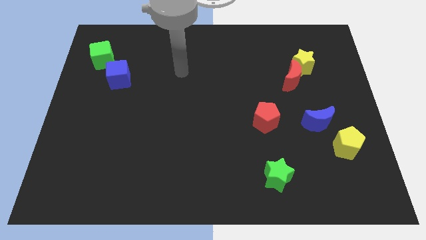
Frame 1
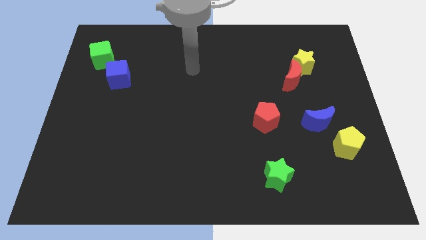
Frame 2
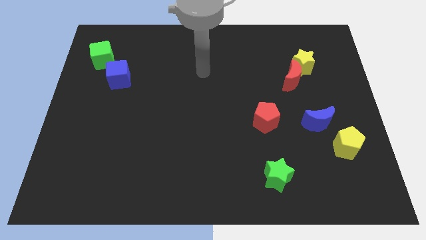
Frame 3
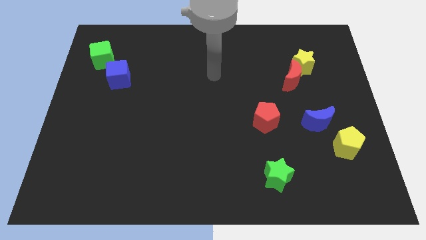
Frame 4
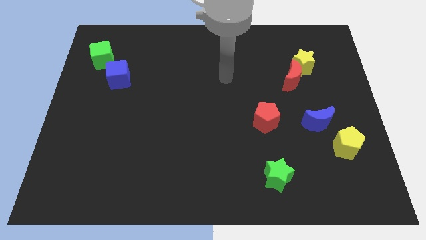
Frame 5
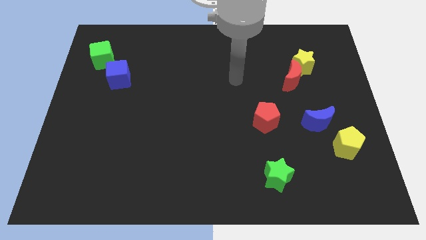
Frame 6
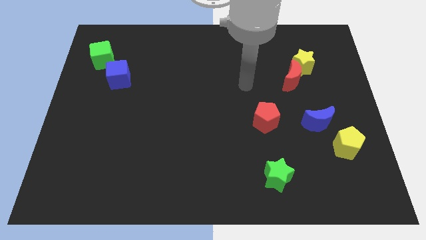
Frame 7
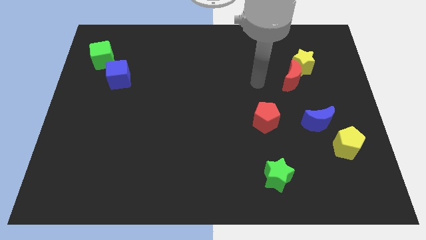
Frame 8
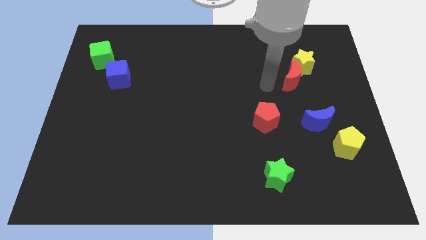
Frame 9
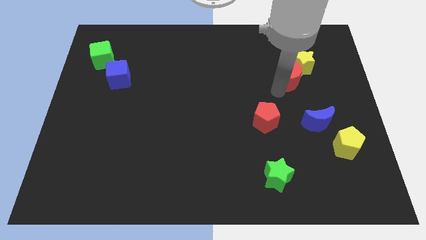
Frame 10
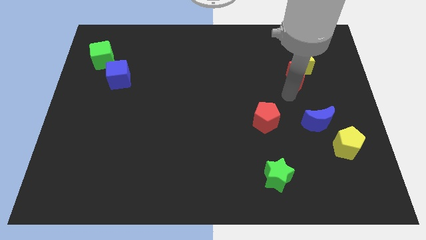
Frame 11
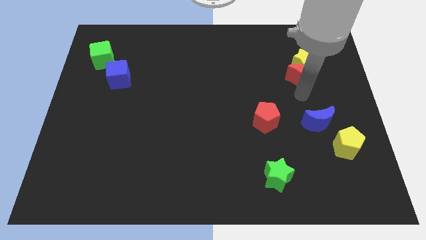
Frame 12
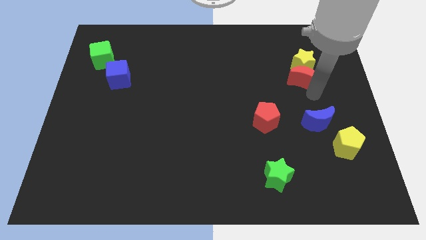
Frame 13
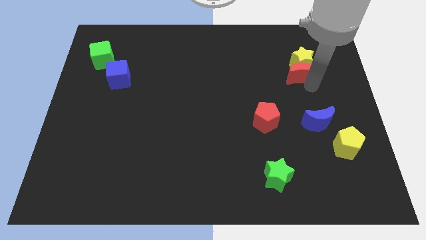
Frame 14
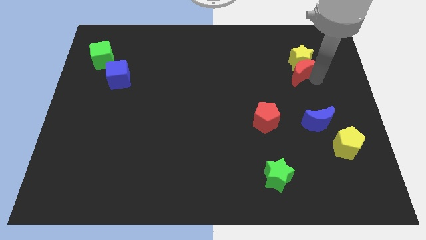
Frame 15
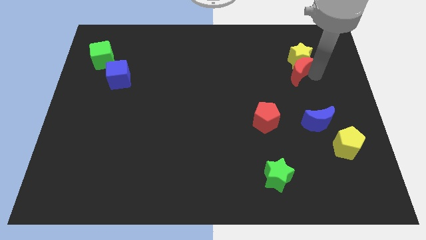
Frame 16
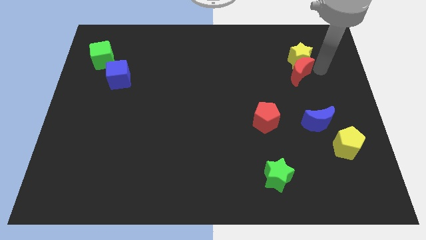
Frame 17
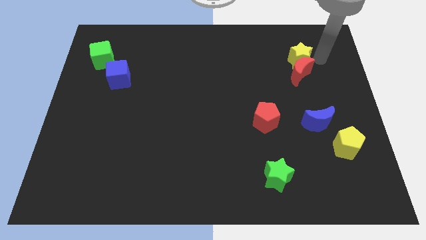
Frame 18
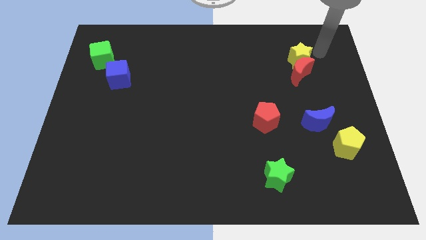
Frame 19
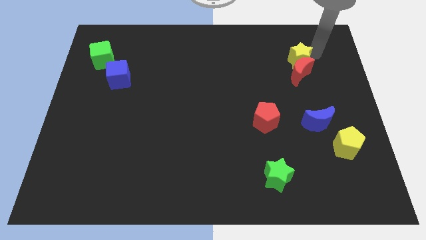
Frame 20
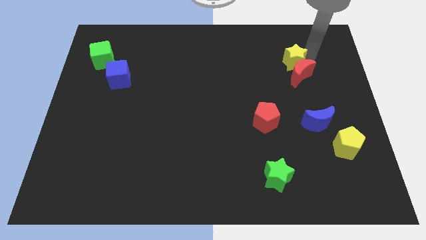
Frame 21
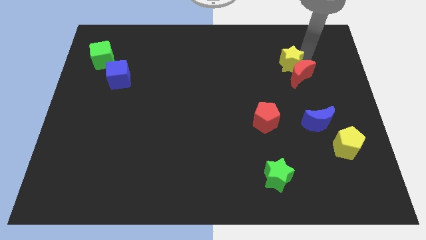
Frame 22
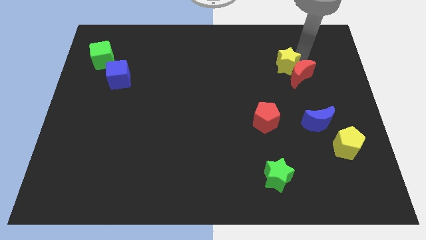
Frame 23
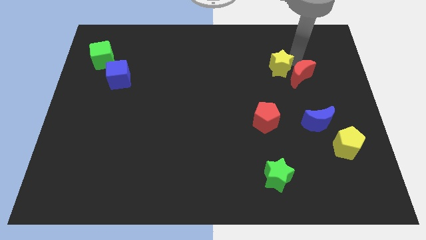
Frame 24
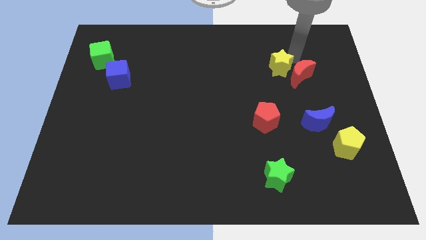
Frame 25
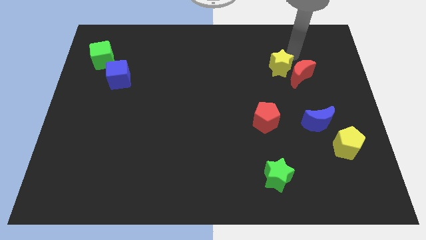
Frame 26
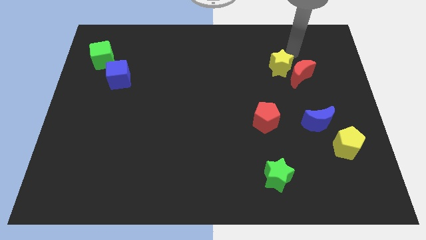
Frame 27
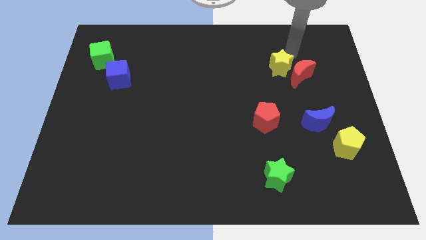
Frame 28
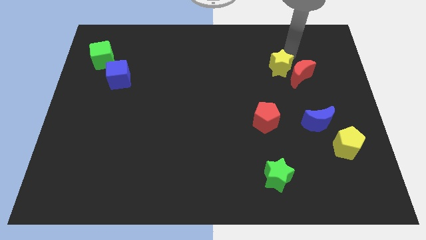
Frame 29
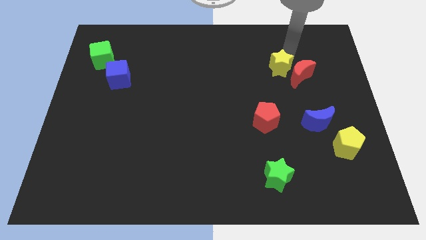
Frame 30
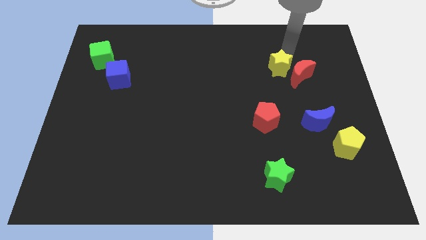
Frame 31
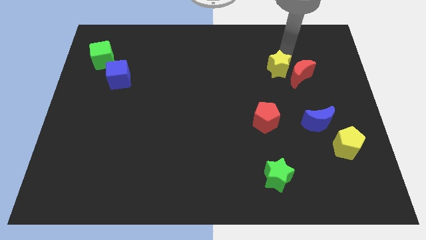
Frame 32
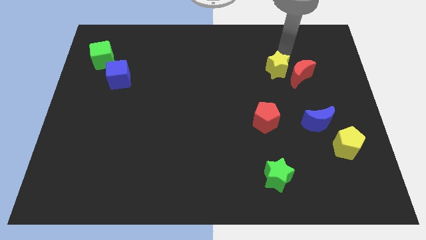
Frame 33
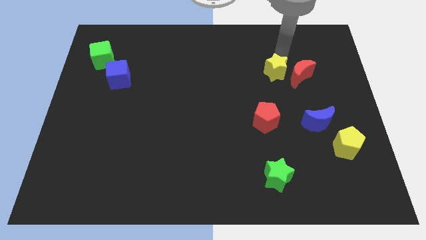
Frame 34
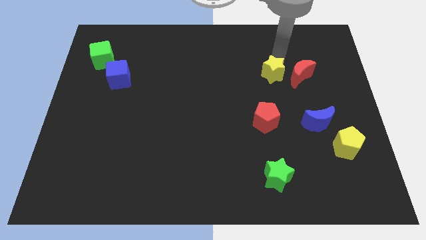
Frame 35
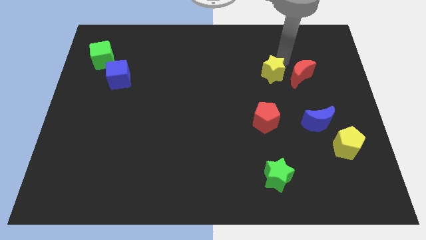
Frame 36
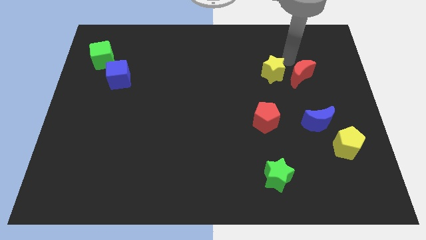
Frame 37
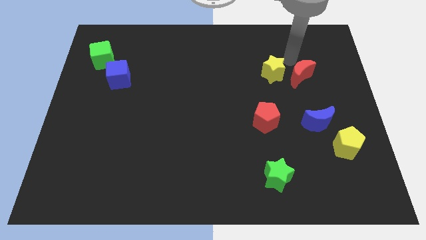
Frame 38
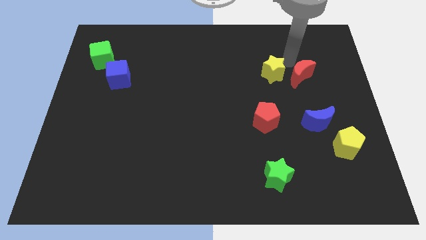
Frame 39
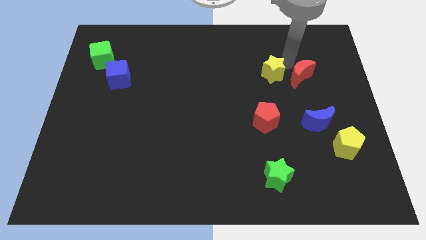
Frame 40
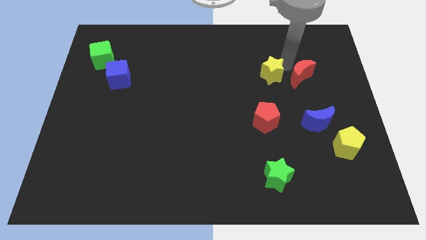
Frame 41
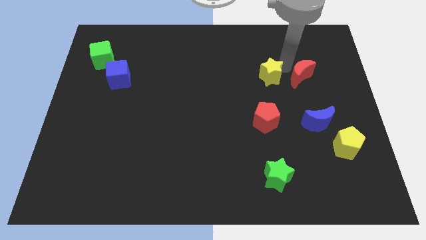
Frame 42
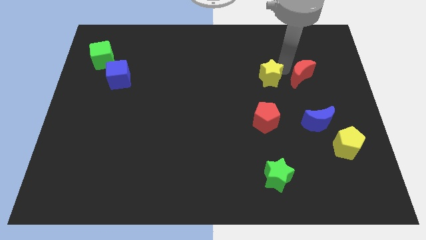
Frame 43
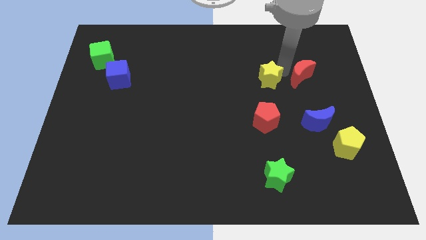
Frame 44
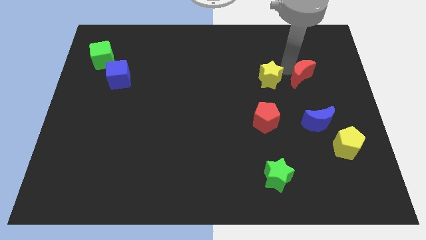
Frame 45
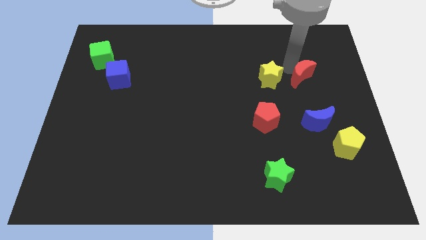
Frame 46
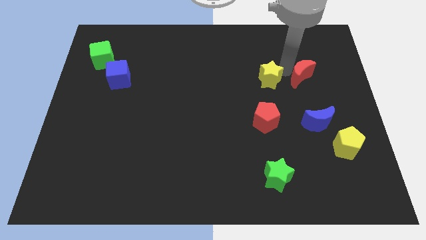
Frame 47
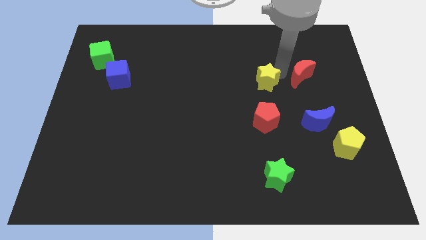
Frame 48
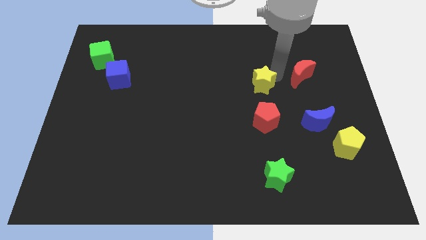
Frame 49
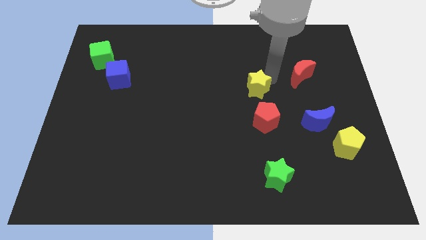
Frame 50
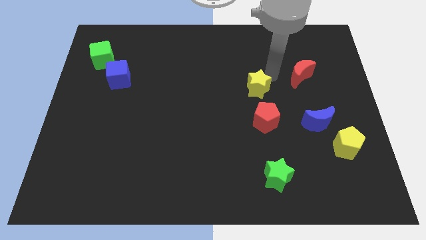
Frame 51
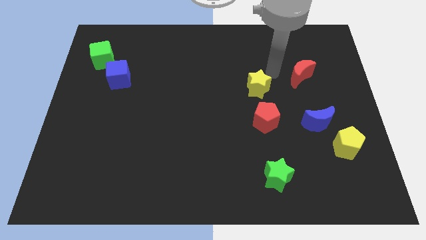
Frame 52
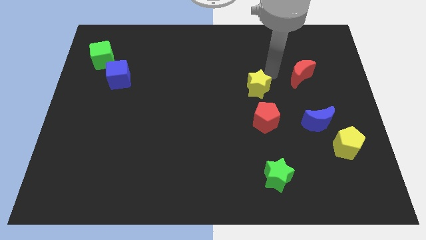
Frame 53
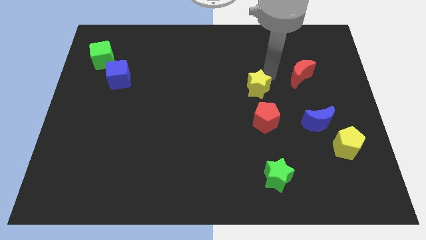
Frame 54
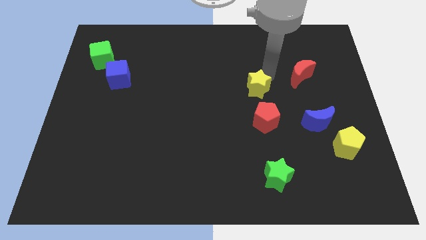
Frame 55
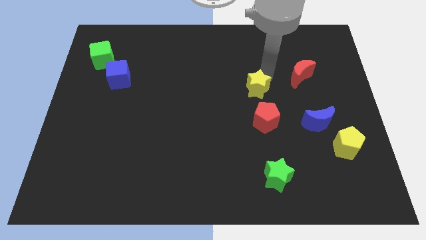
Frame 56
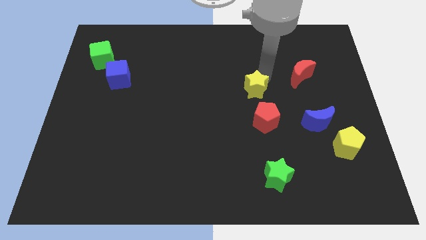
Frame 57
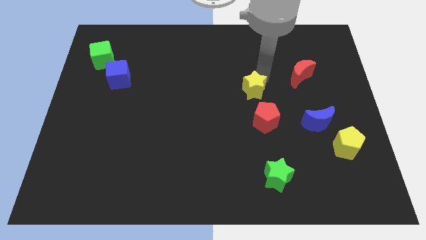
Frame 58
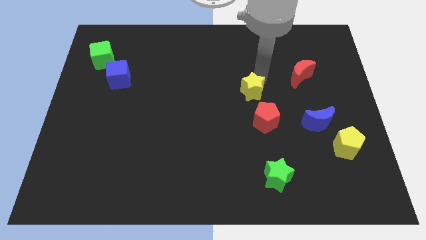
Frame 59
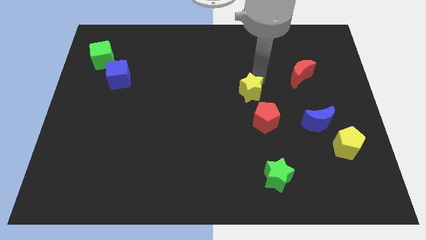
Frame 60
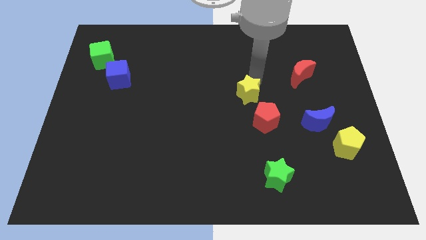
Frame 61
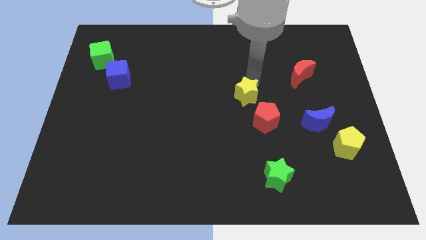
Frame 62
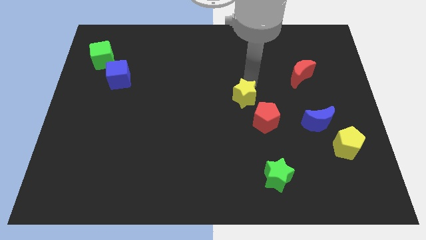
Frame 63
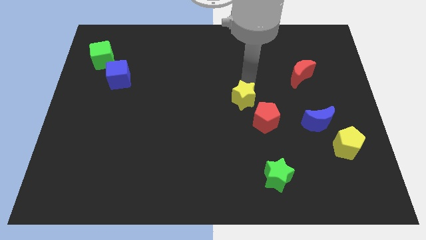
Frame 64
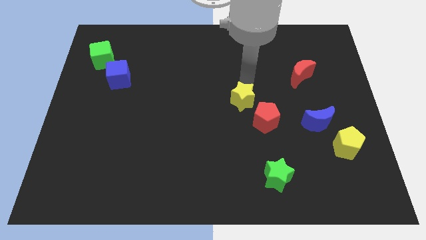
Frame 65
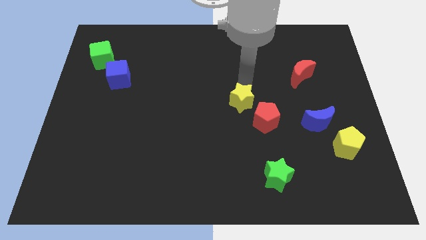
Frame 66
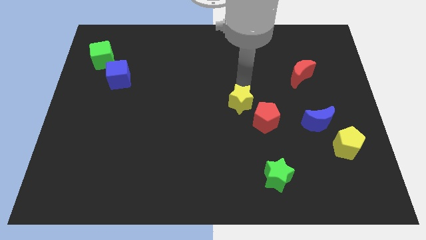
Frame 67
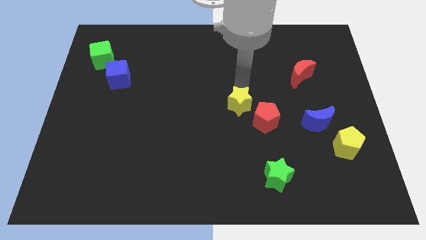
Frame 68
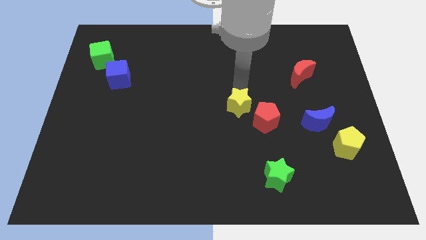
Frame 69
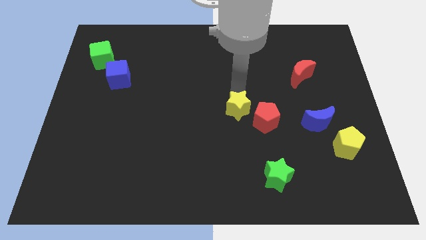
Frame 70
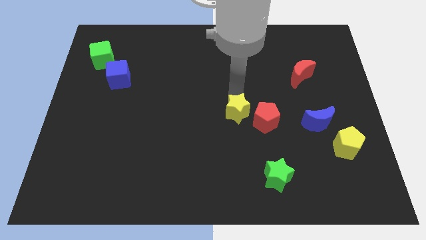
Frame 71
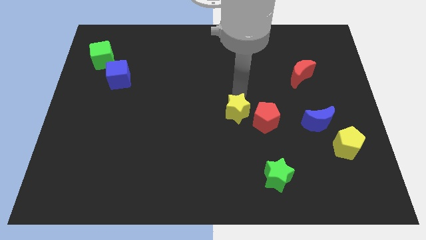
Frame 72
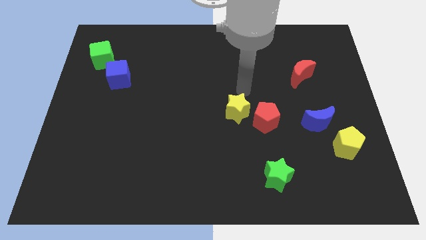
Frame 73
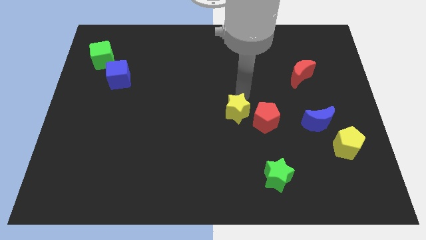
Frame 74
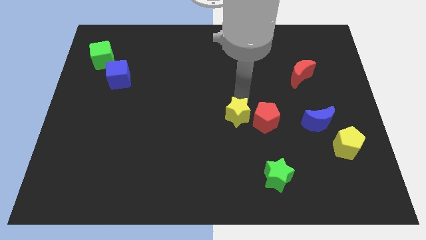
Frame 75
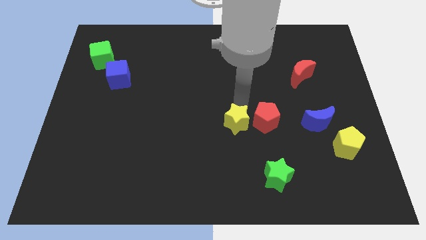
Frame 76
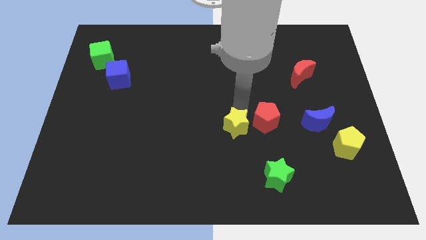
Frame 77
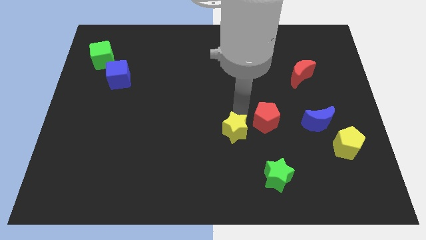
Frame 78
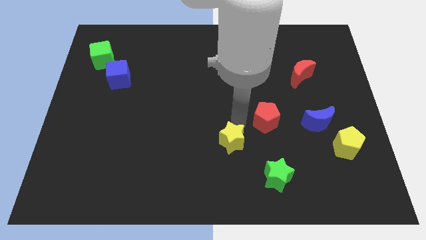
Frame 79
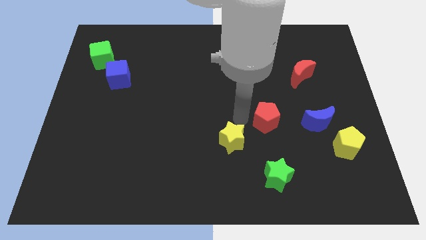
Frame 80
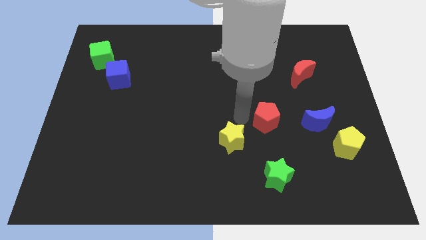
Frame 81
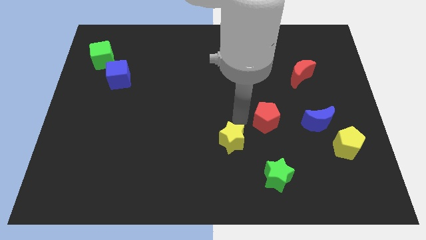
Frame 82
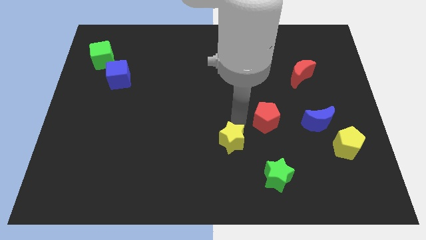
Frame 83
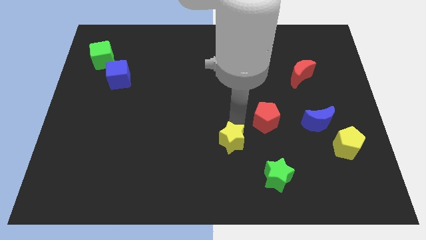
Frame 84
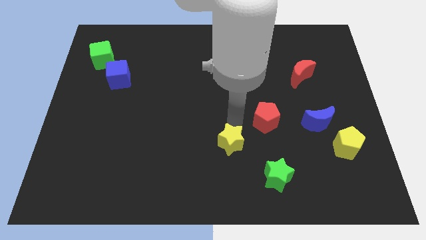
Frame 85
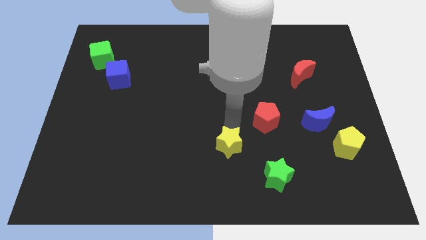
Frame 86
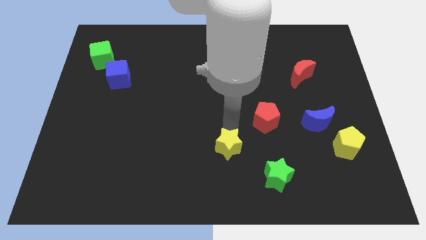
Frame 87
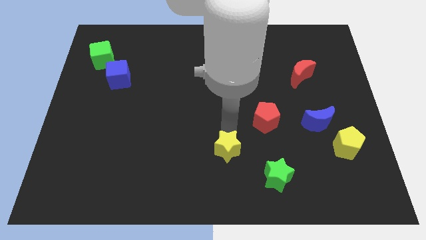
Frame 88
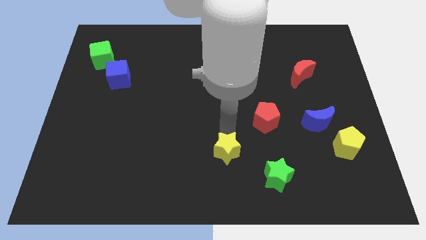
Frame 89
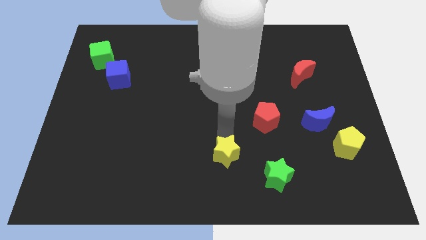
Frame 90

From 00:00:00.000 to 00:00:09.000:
slide the yellow star to the bottom
